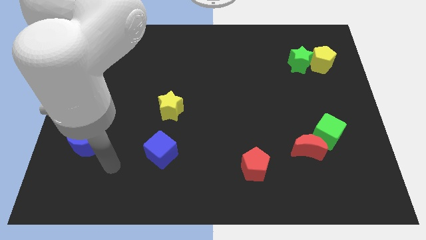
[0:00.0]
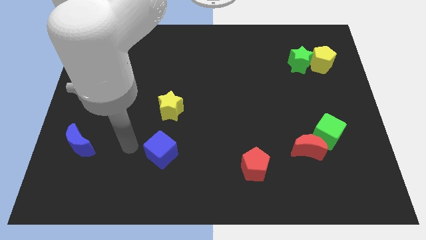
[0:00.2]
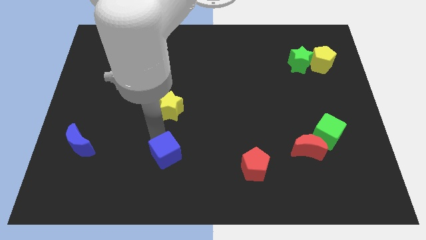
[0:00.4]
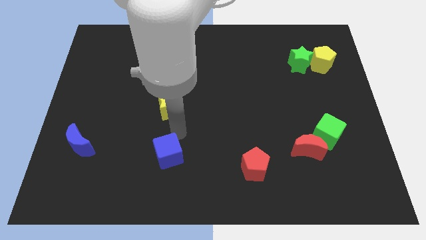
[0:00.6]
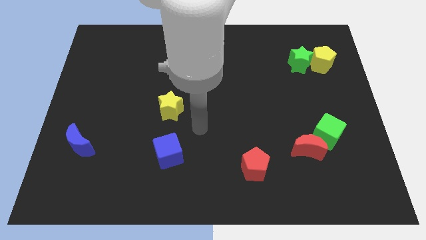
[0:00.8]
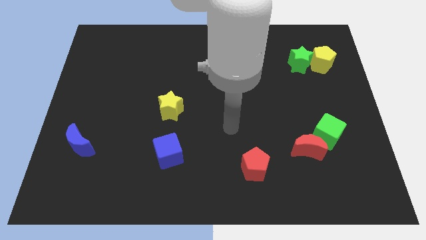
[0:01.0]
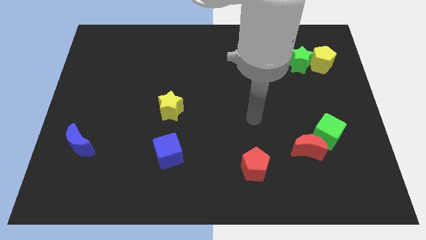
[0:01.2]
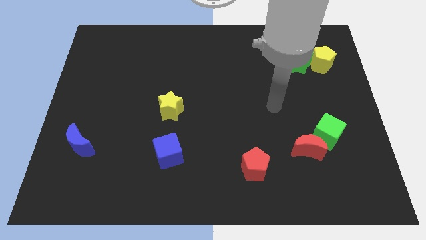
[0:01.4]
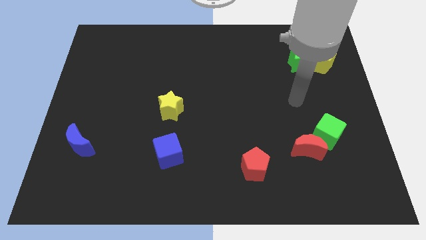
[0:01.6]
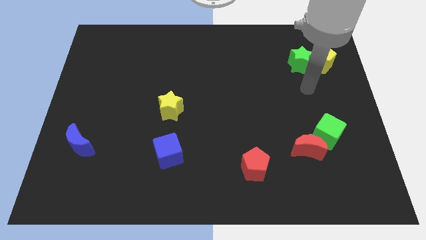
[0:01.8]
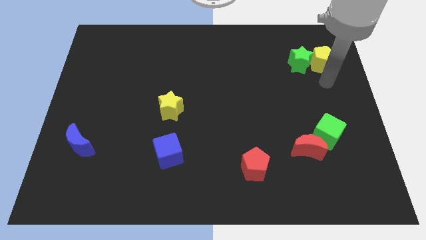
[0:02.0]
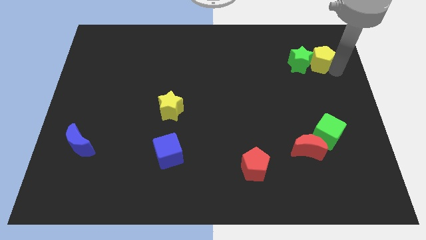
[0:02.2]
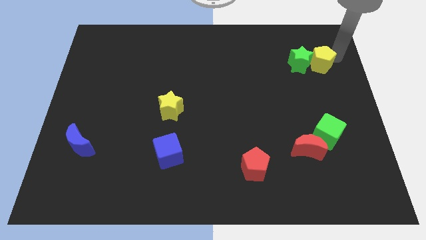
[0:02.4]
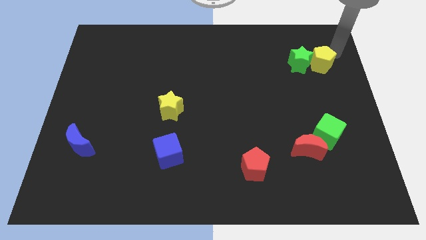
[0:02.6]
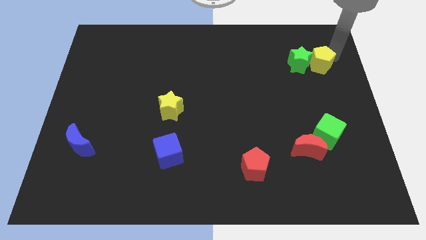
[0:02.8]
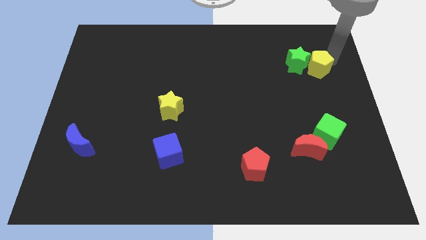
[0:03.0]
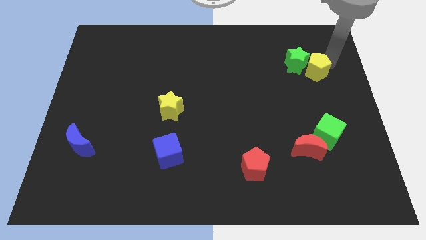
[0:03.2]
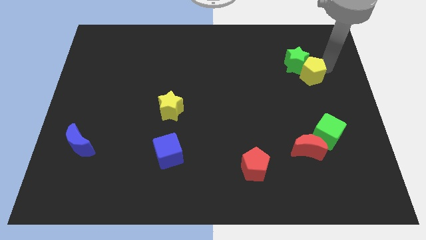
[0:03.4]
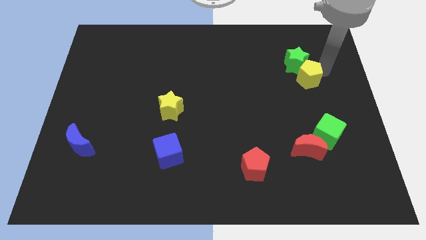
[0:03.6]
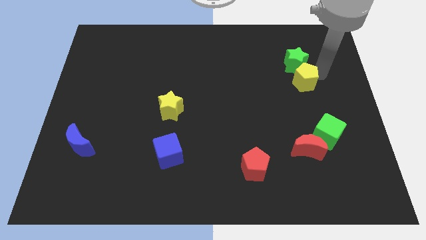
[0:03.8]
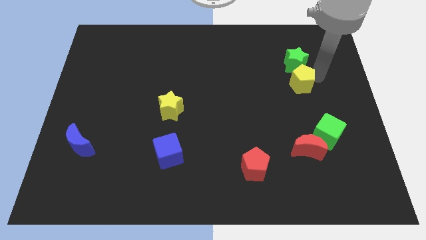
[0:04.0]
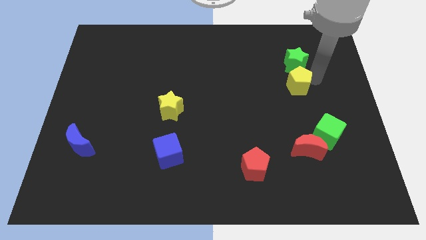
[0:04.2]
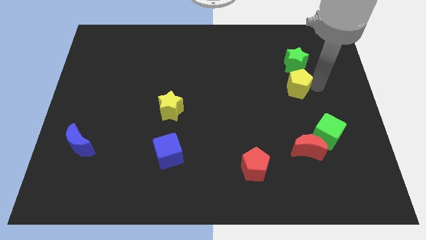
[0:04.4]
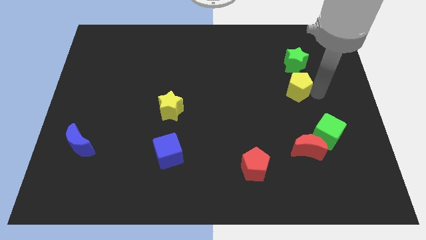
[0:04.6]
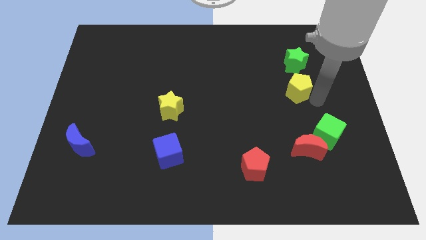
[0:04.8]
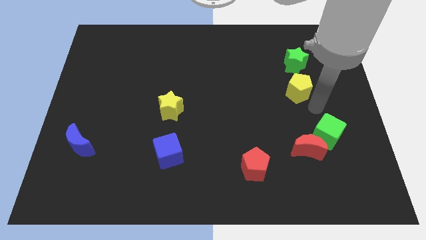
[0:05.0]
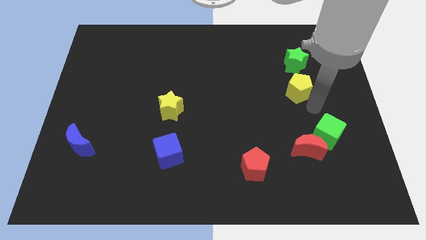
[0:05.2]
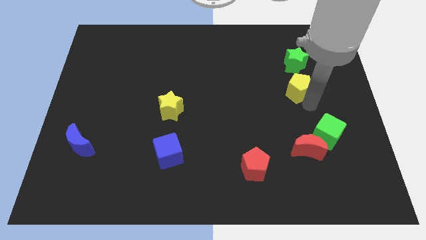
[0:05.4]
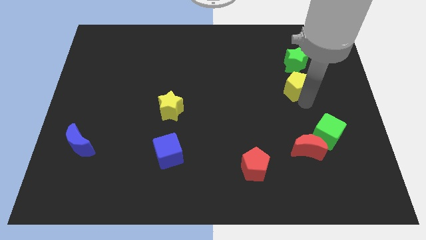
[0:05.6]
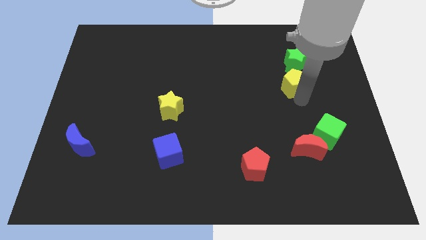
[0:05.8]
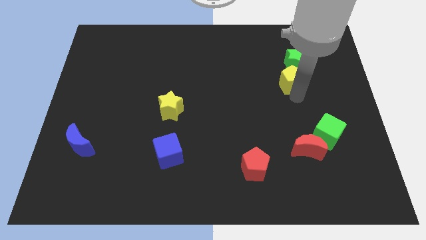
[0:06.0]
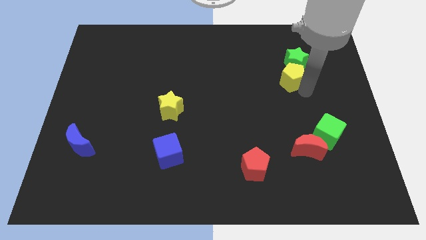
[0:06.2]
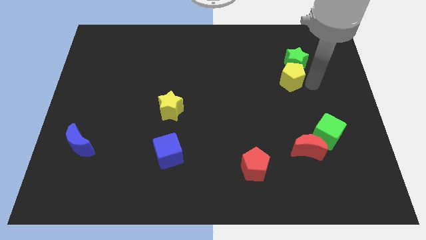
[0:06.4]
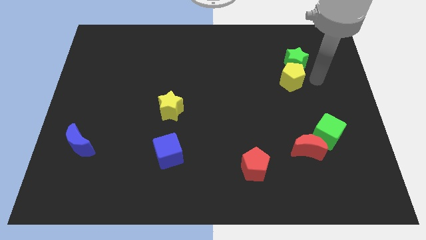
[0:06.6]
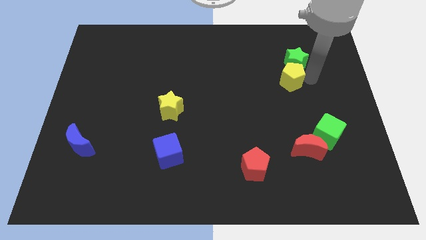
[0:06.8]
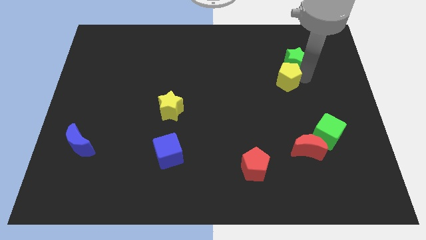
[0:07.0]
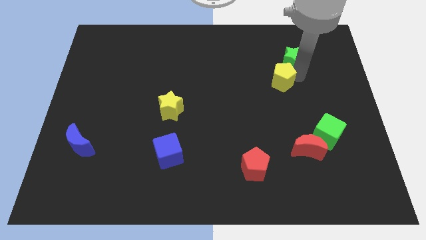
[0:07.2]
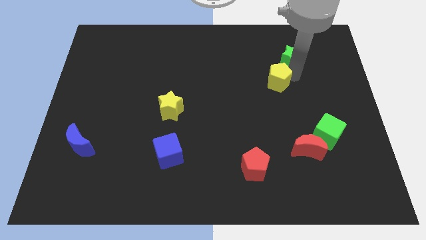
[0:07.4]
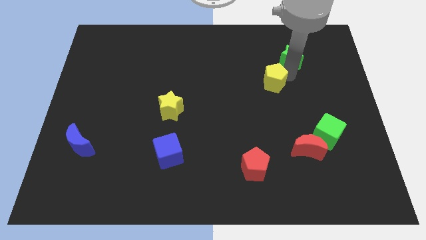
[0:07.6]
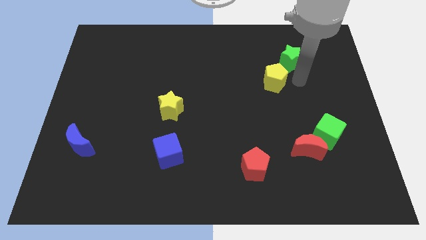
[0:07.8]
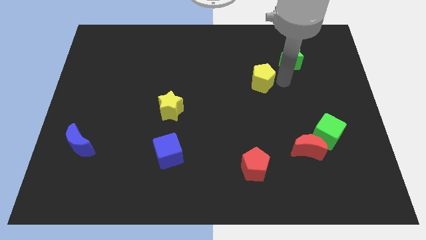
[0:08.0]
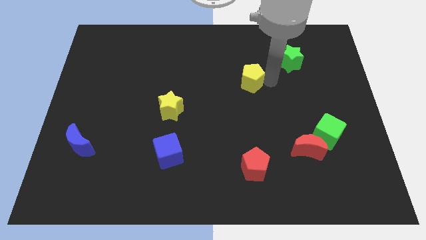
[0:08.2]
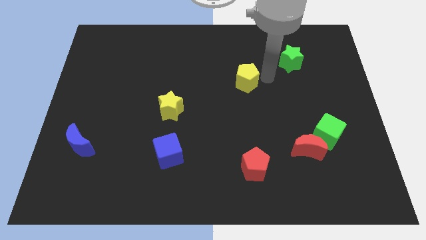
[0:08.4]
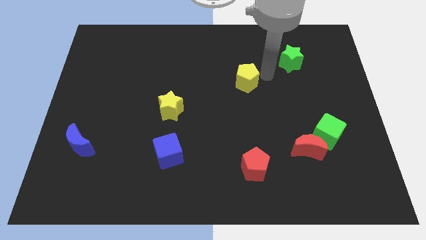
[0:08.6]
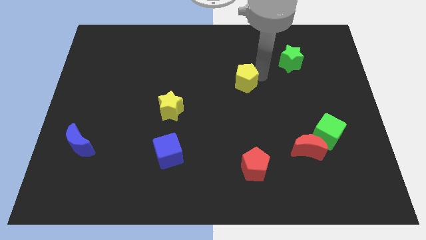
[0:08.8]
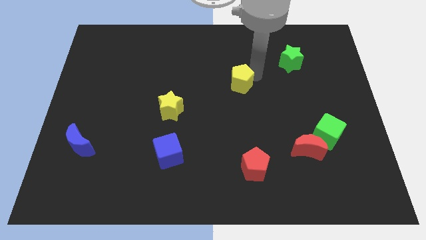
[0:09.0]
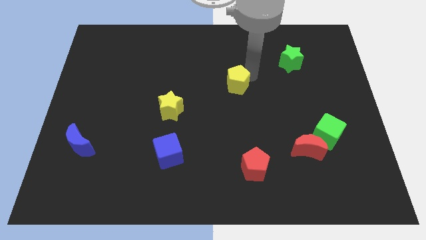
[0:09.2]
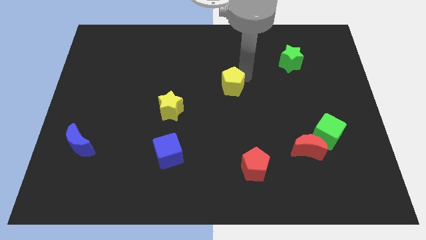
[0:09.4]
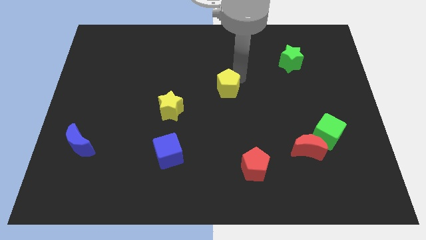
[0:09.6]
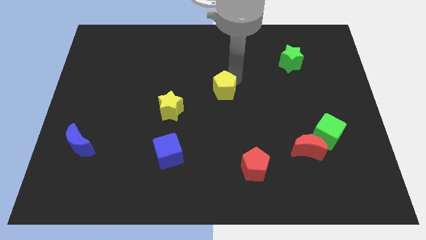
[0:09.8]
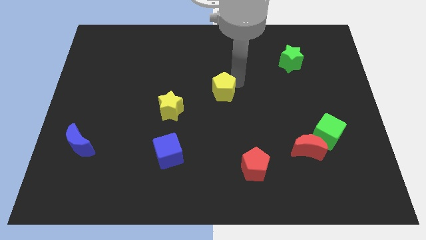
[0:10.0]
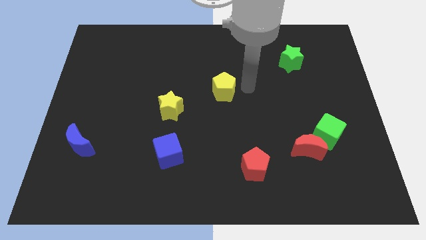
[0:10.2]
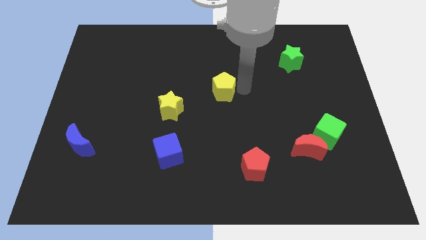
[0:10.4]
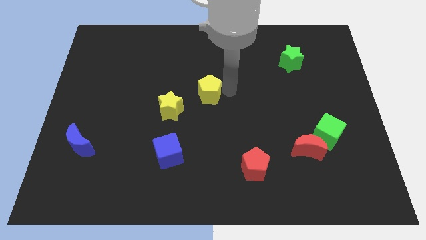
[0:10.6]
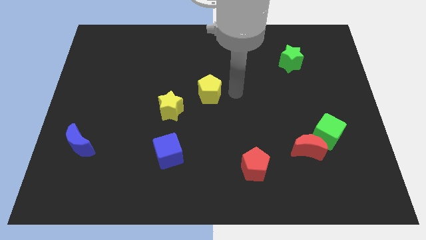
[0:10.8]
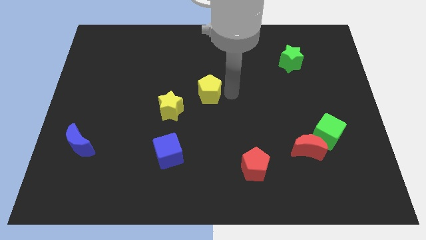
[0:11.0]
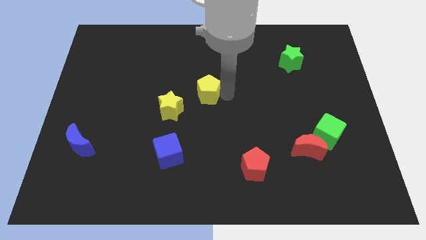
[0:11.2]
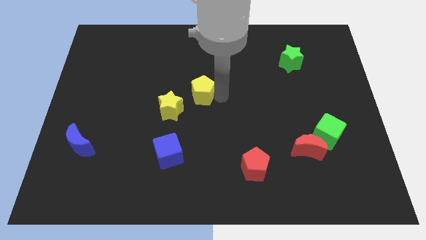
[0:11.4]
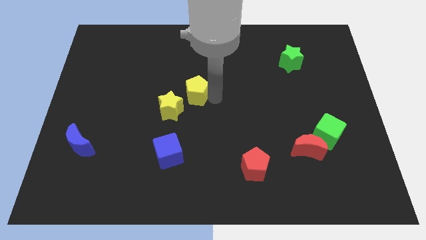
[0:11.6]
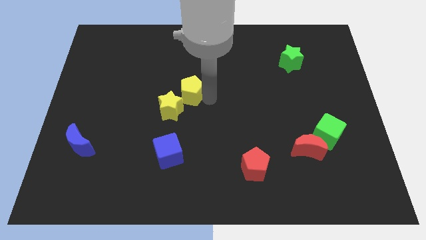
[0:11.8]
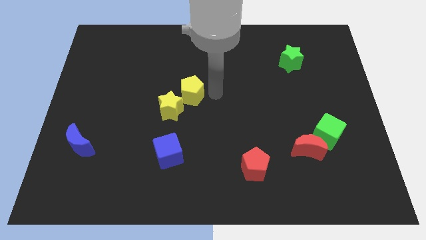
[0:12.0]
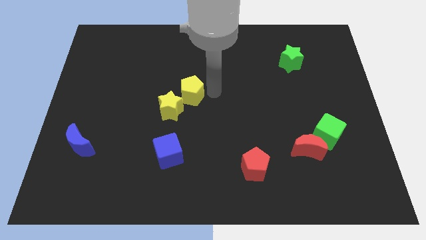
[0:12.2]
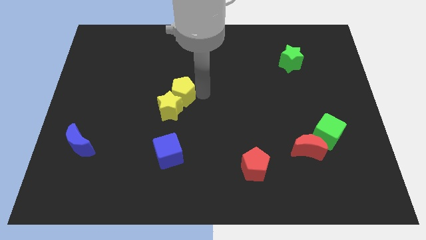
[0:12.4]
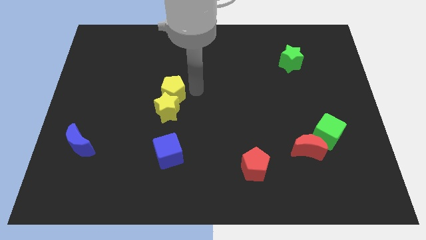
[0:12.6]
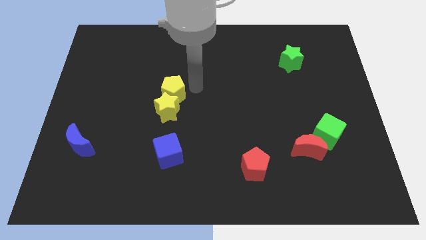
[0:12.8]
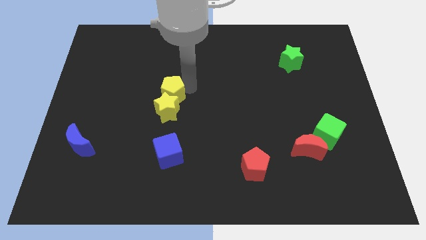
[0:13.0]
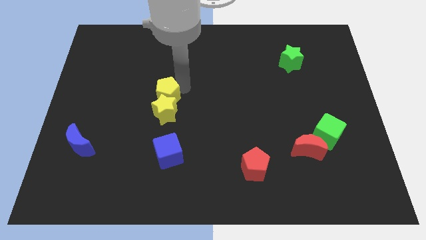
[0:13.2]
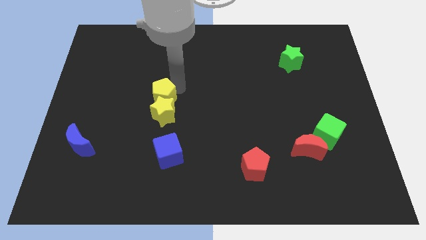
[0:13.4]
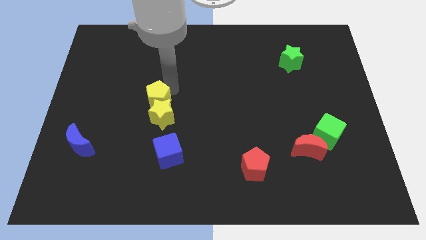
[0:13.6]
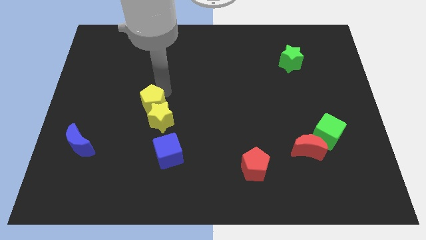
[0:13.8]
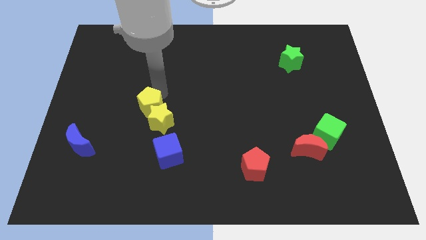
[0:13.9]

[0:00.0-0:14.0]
put the yellow pentagon left of the yellow star

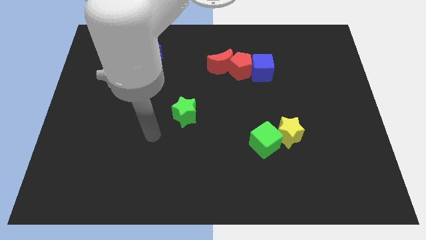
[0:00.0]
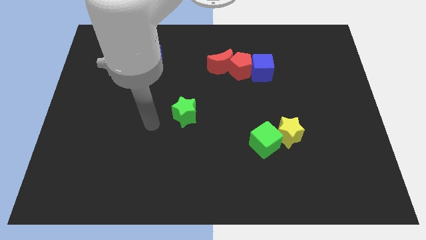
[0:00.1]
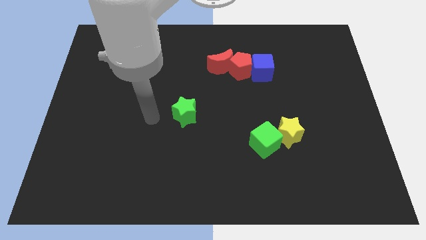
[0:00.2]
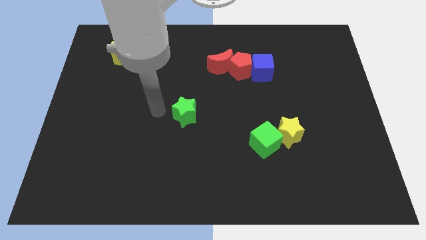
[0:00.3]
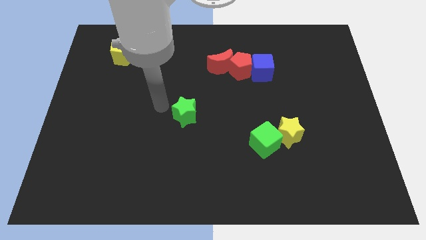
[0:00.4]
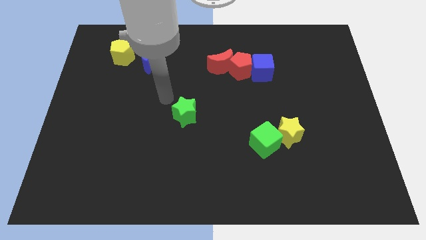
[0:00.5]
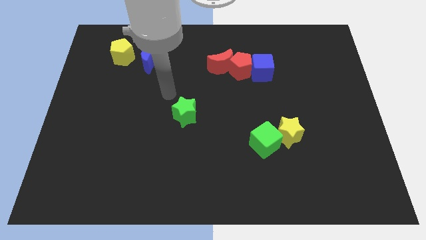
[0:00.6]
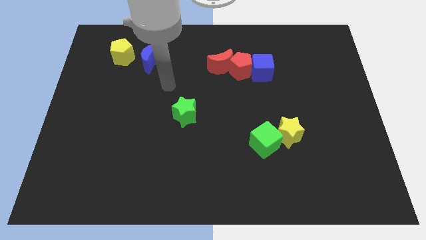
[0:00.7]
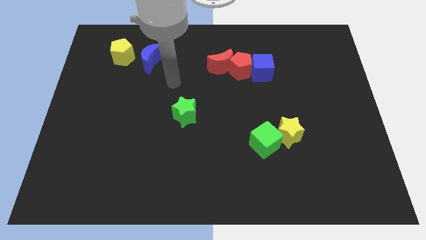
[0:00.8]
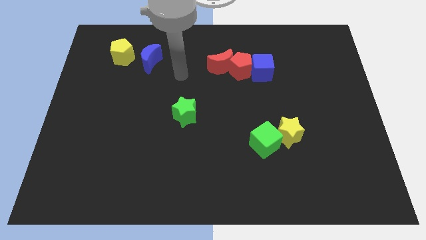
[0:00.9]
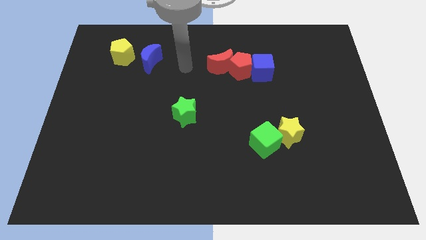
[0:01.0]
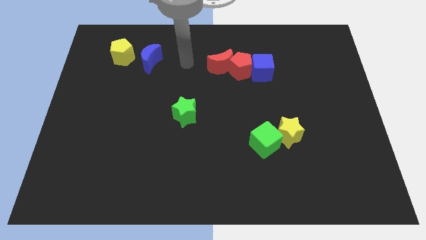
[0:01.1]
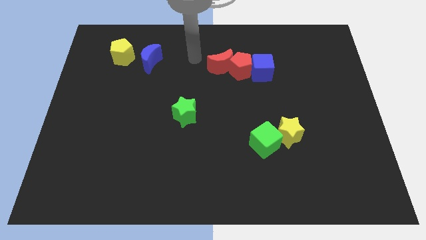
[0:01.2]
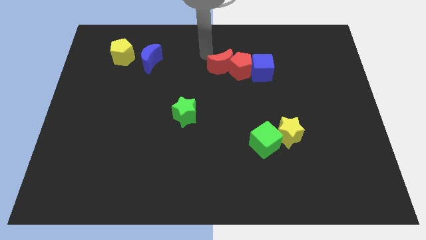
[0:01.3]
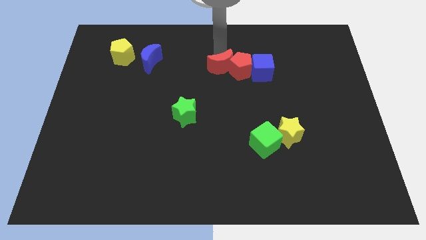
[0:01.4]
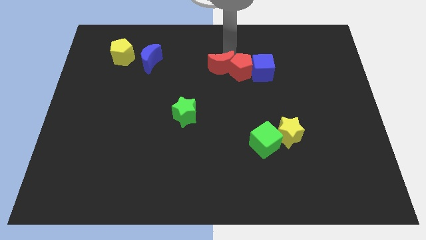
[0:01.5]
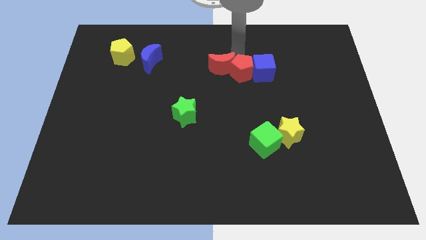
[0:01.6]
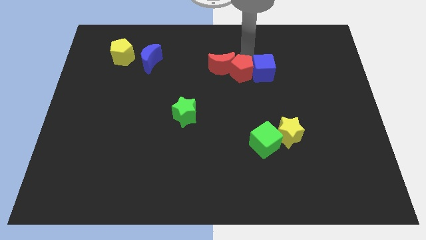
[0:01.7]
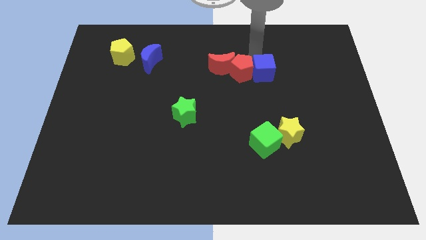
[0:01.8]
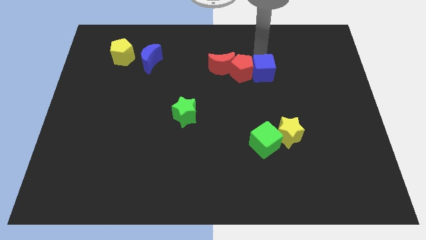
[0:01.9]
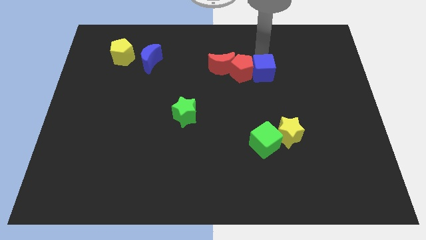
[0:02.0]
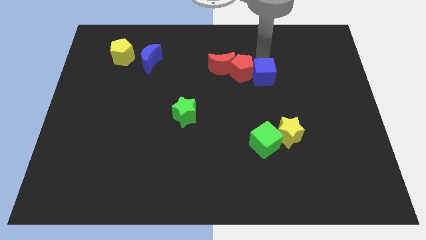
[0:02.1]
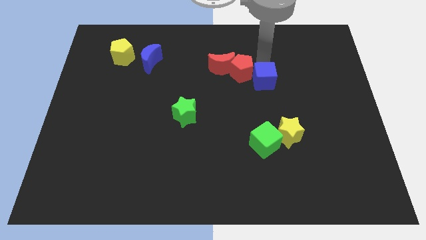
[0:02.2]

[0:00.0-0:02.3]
push the blue cube to the bottom right of the red moon
